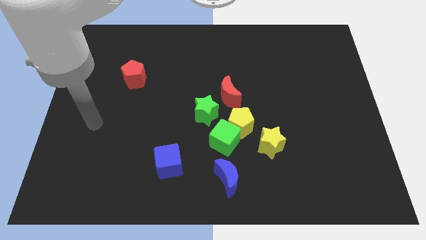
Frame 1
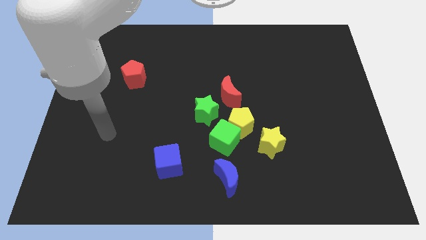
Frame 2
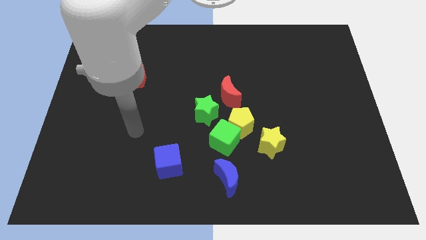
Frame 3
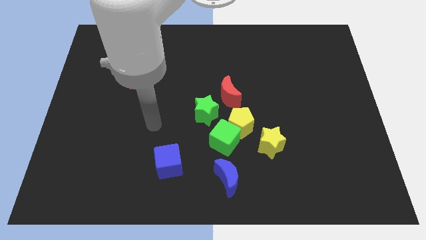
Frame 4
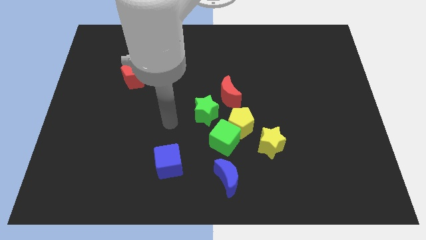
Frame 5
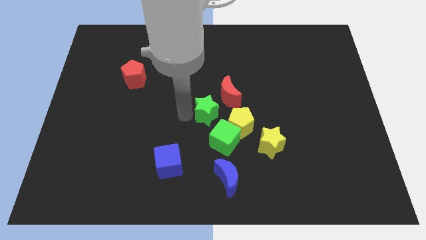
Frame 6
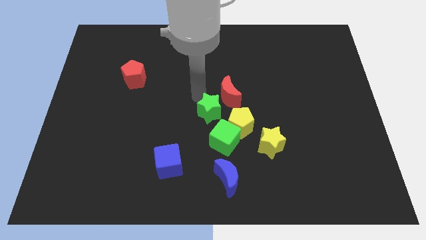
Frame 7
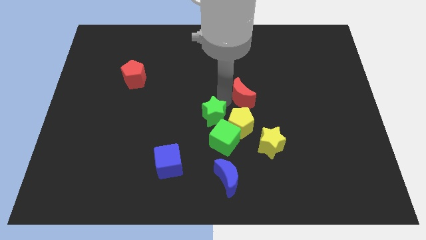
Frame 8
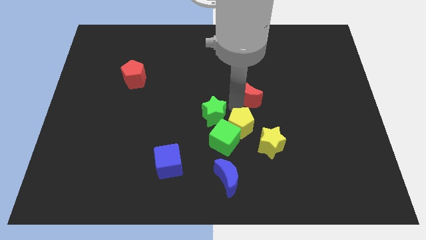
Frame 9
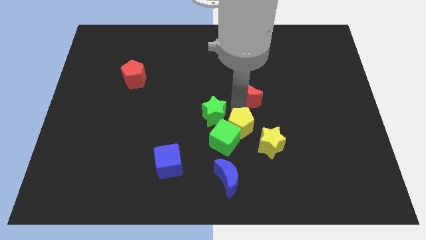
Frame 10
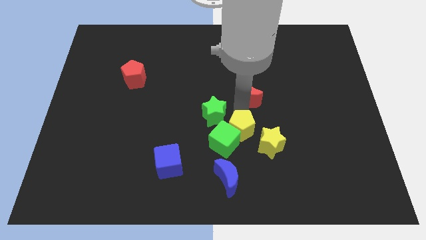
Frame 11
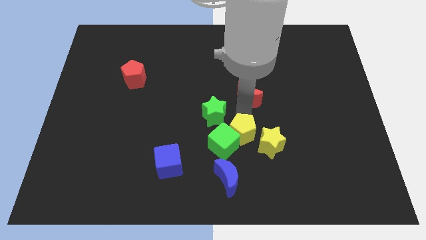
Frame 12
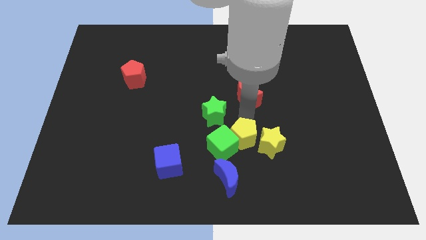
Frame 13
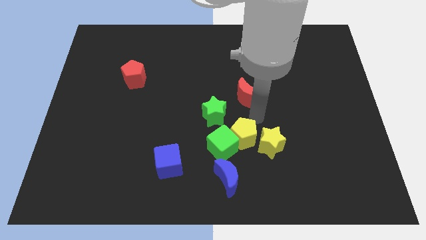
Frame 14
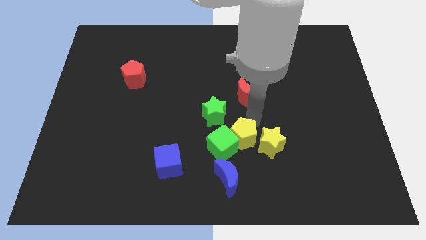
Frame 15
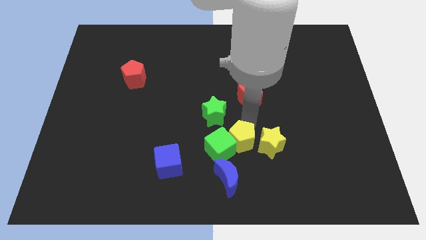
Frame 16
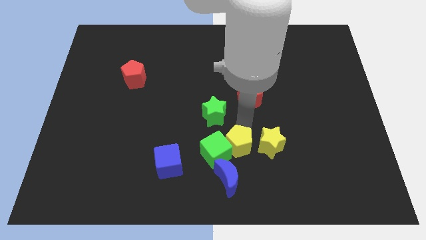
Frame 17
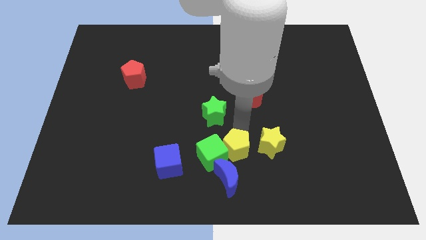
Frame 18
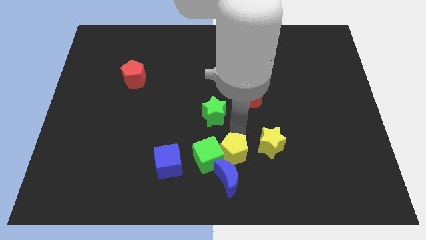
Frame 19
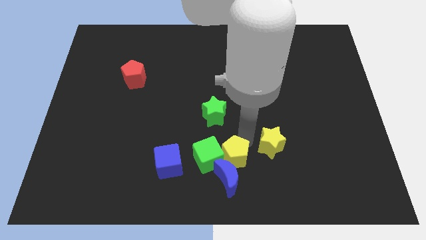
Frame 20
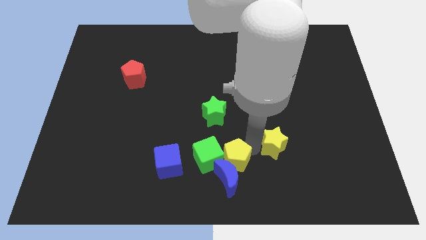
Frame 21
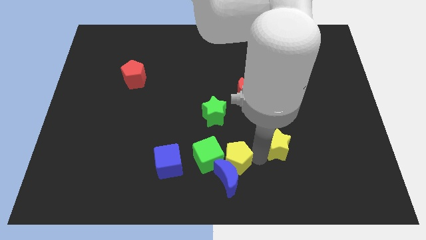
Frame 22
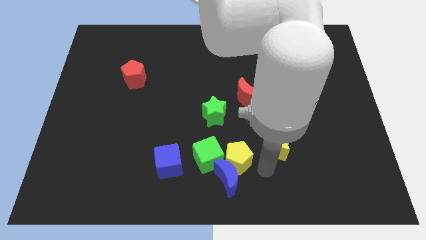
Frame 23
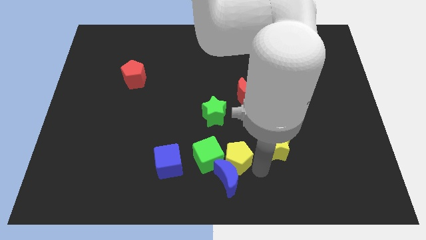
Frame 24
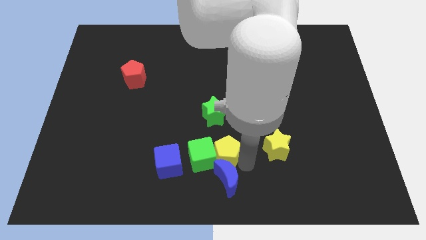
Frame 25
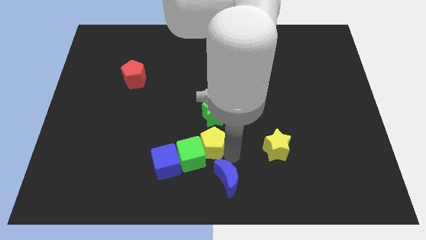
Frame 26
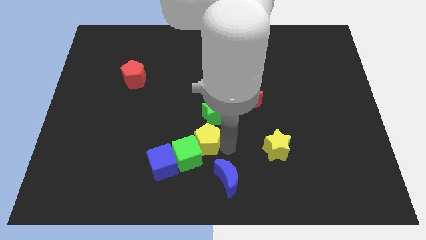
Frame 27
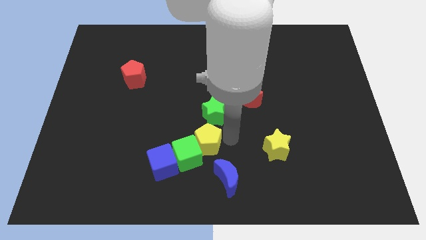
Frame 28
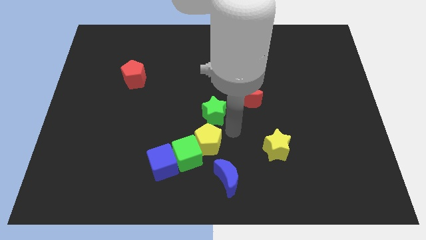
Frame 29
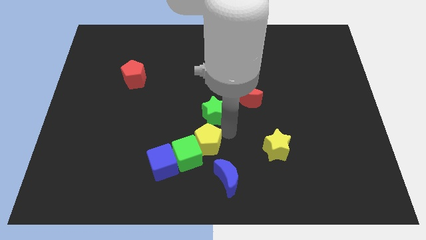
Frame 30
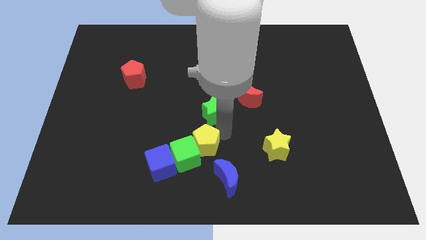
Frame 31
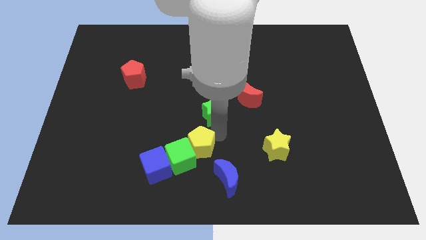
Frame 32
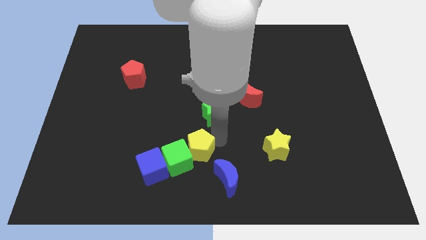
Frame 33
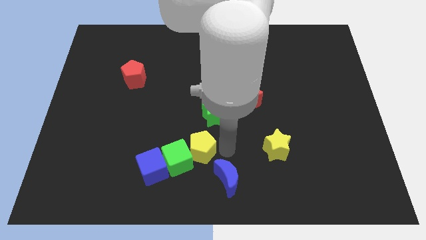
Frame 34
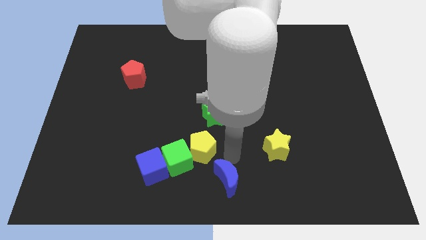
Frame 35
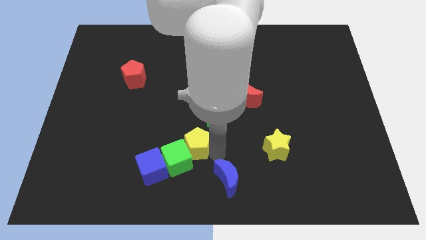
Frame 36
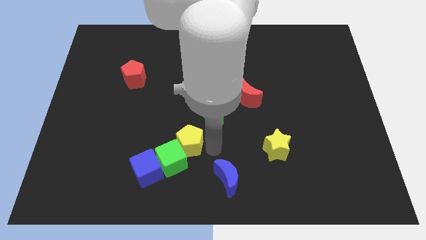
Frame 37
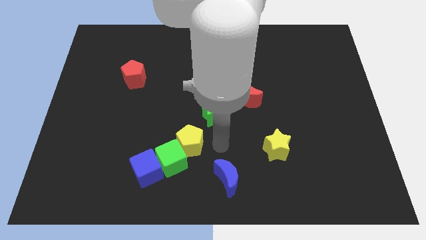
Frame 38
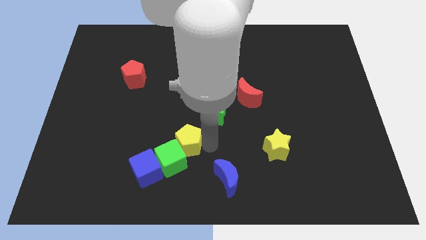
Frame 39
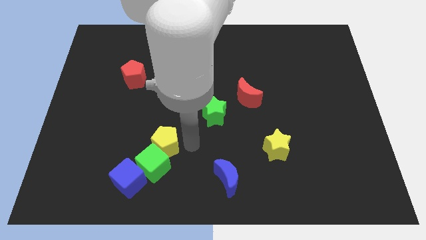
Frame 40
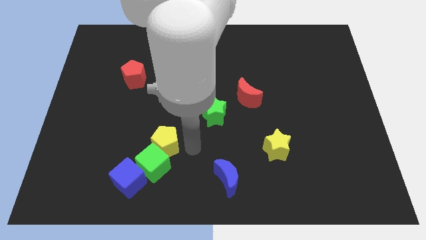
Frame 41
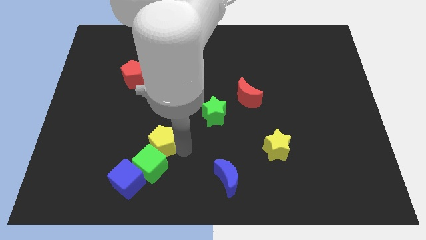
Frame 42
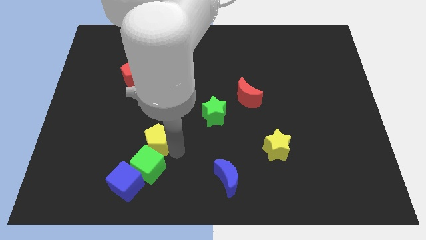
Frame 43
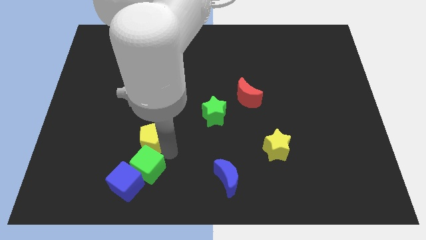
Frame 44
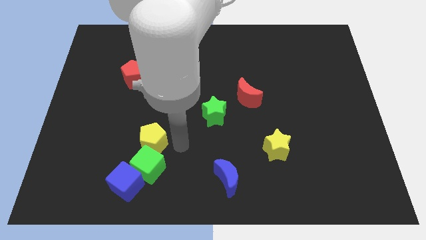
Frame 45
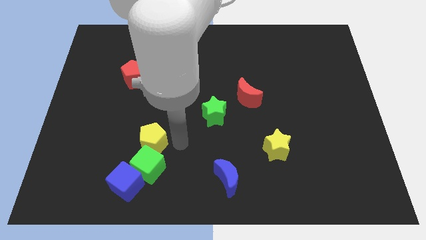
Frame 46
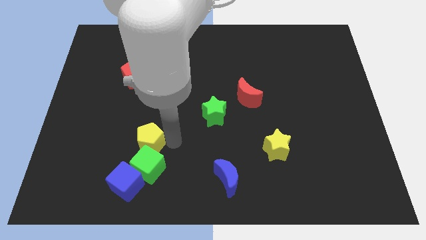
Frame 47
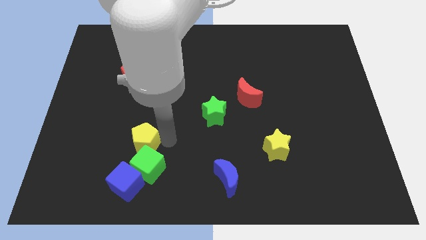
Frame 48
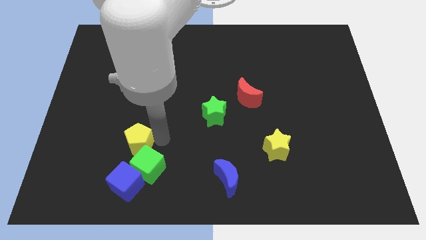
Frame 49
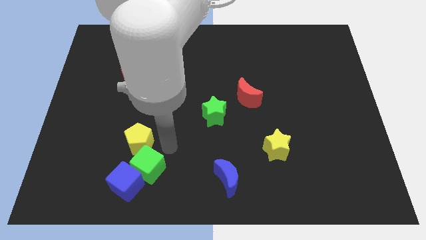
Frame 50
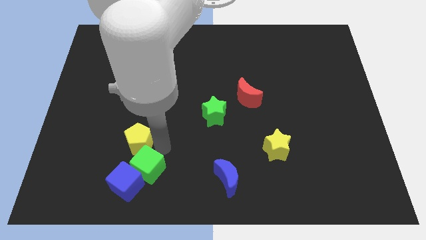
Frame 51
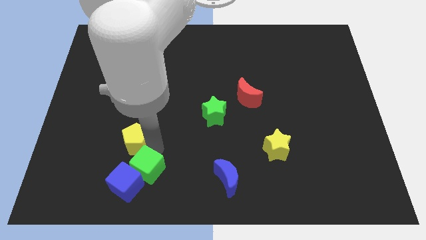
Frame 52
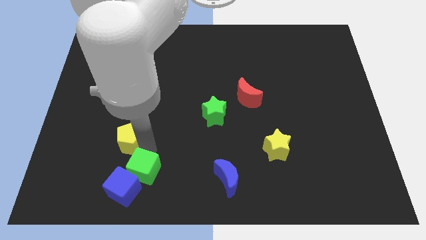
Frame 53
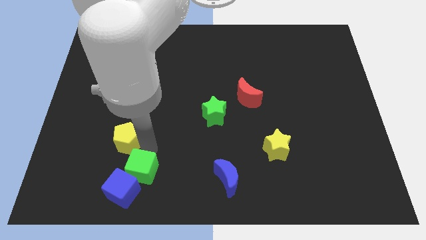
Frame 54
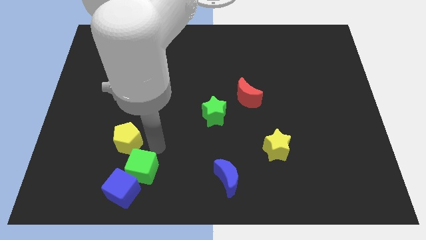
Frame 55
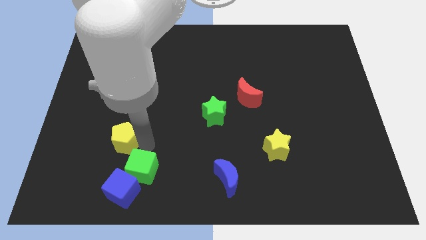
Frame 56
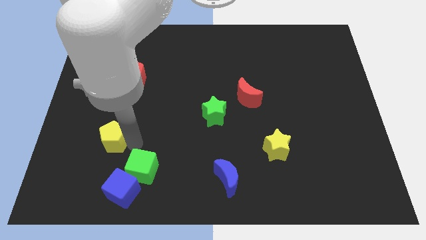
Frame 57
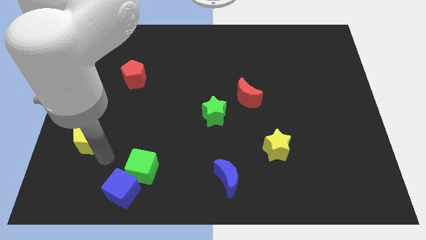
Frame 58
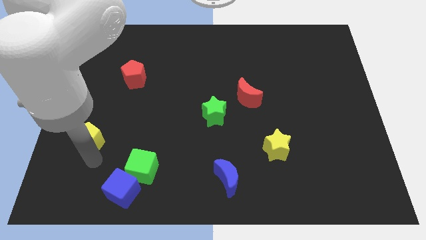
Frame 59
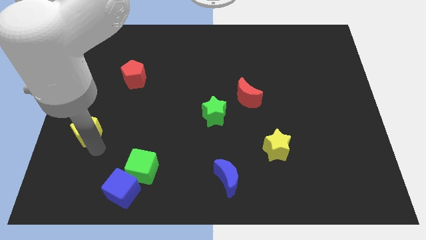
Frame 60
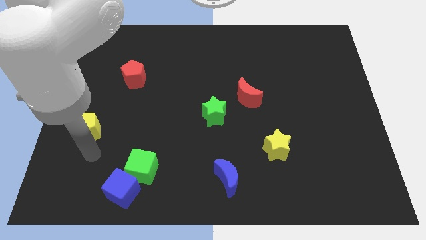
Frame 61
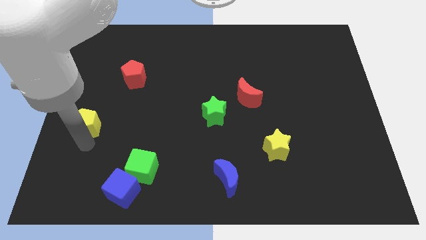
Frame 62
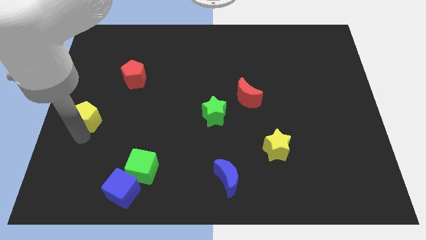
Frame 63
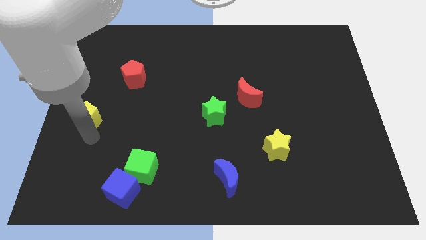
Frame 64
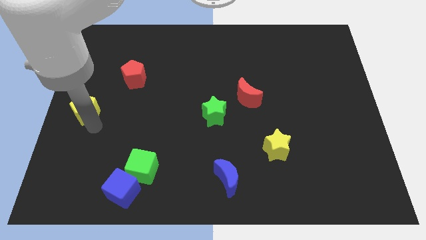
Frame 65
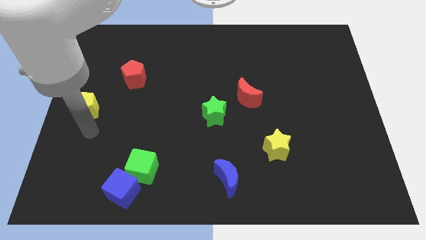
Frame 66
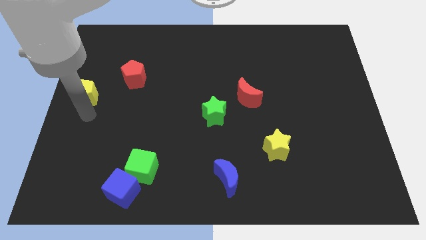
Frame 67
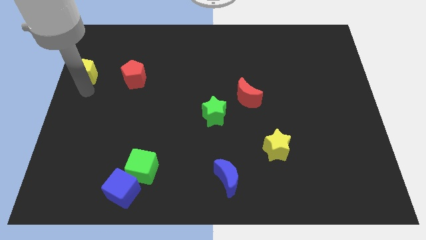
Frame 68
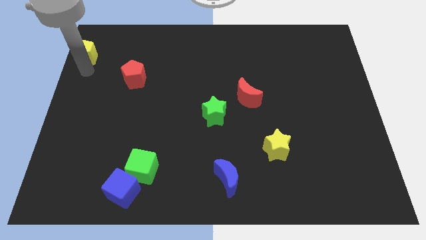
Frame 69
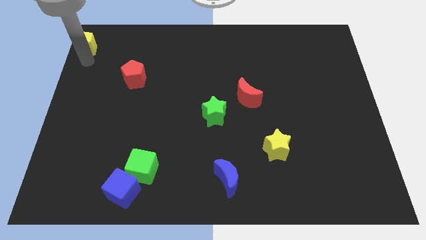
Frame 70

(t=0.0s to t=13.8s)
move the yellow pentagon to the upper left corner

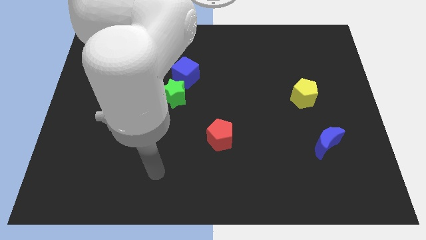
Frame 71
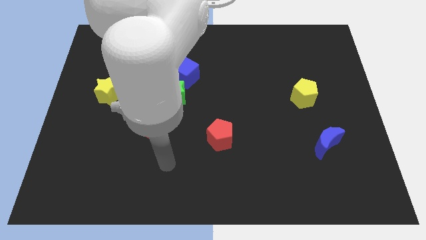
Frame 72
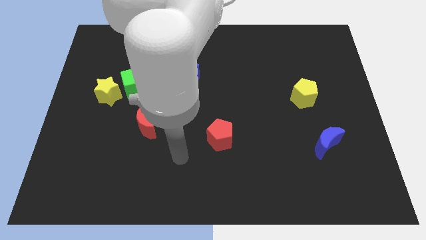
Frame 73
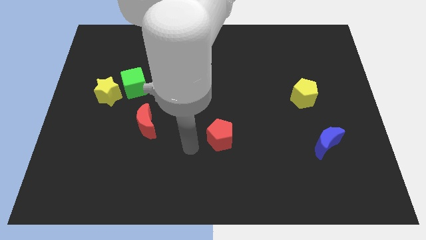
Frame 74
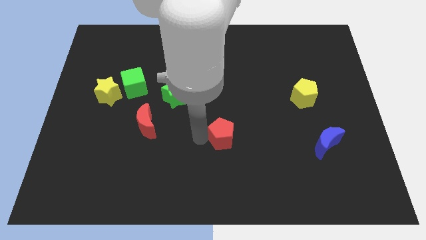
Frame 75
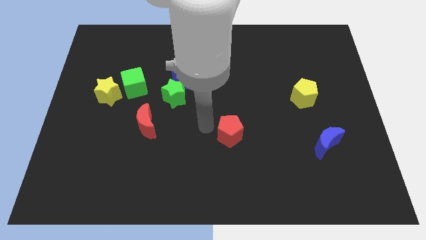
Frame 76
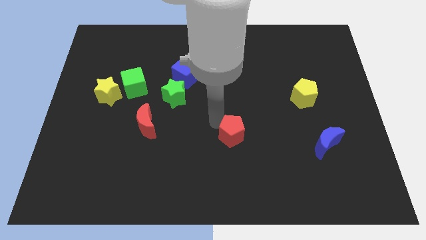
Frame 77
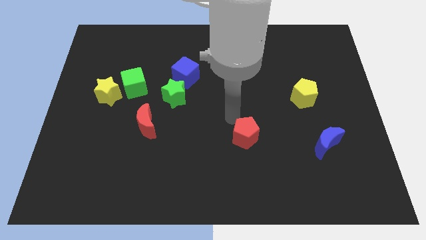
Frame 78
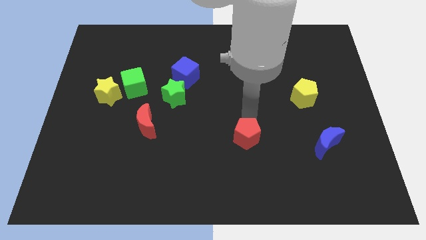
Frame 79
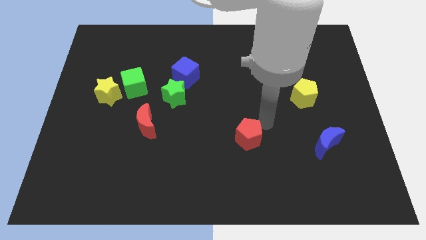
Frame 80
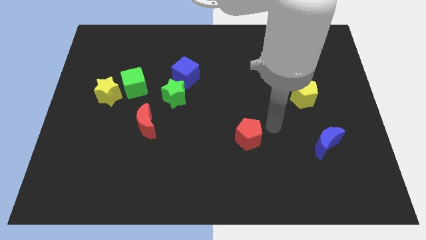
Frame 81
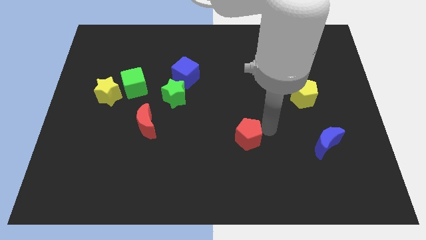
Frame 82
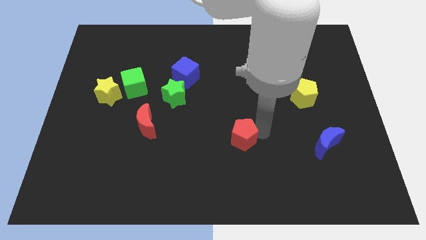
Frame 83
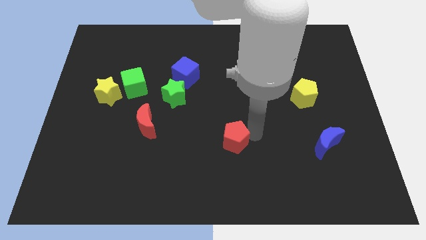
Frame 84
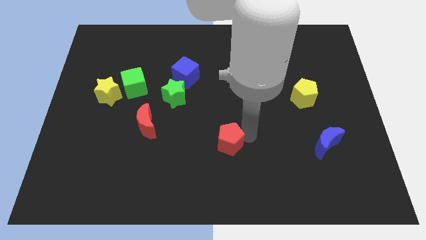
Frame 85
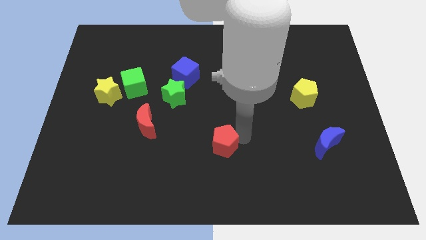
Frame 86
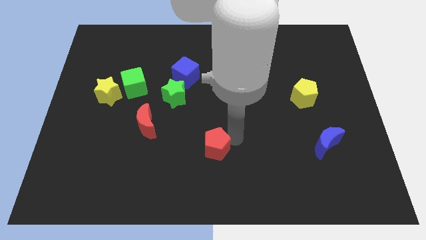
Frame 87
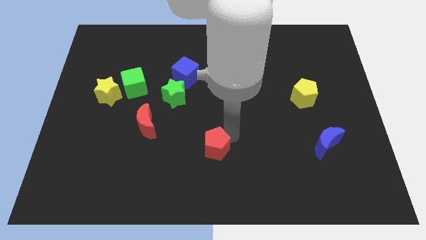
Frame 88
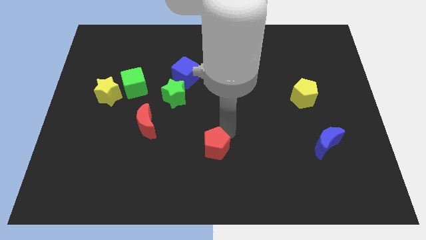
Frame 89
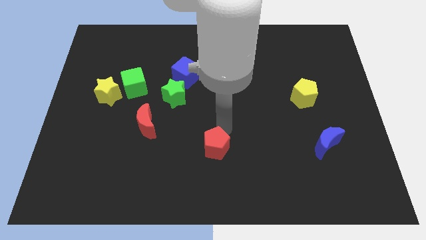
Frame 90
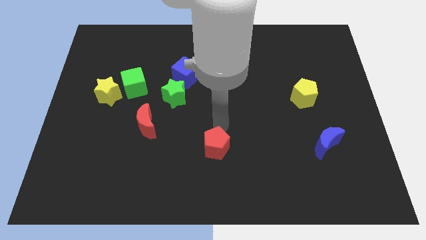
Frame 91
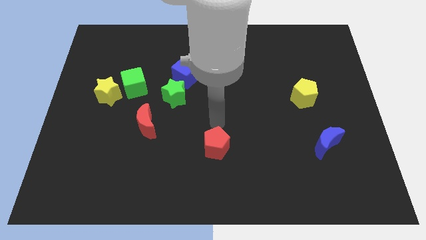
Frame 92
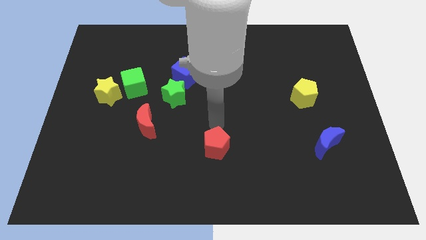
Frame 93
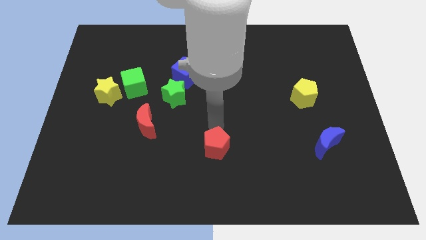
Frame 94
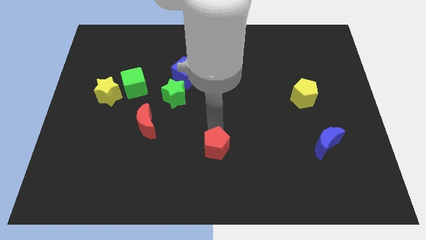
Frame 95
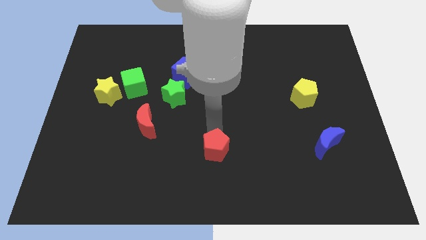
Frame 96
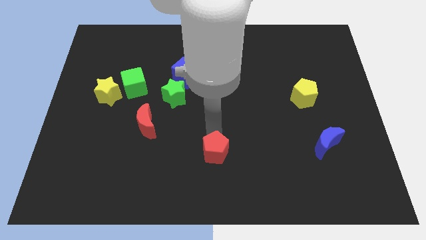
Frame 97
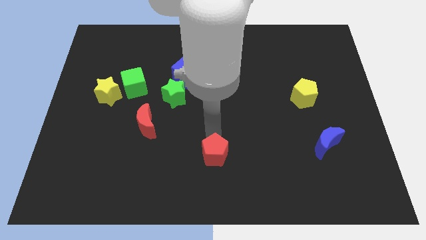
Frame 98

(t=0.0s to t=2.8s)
push the red pentagon to the bottom
